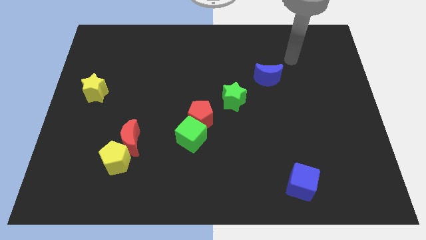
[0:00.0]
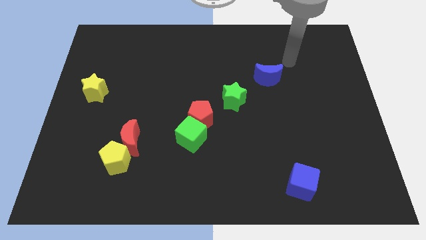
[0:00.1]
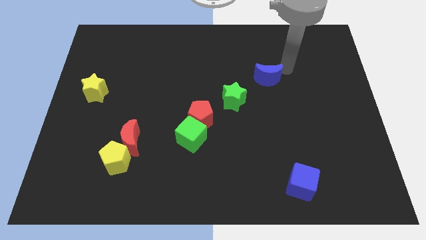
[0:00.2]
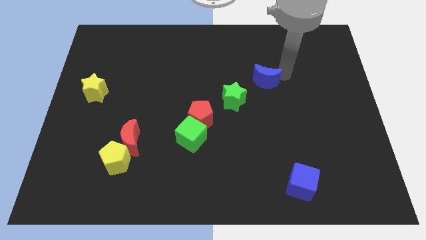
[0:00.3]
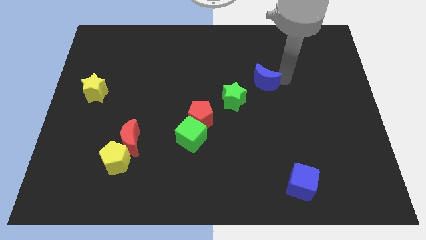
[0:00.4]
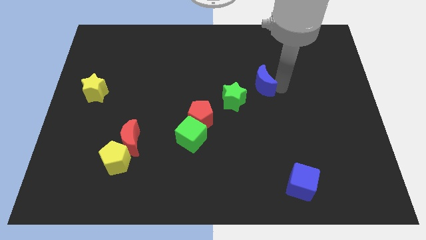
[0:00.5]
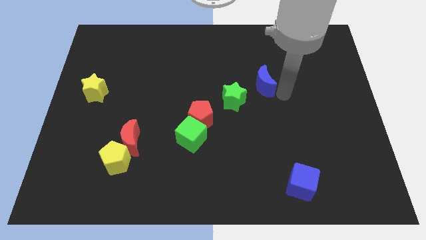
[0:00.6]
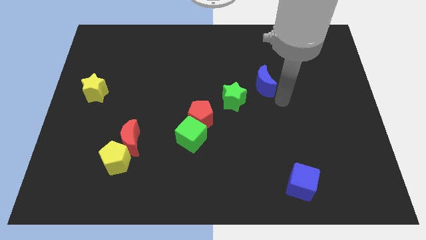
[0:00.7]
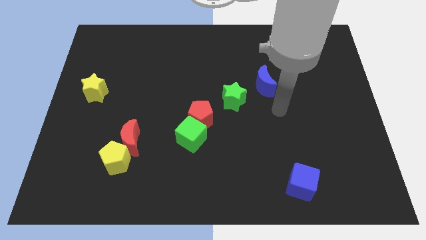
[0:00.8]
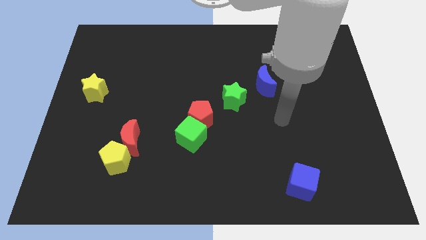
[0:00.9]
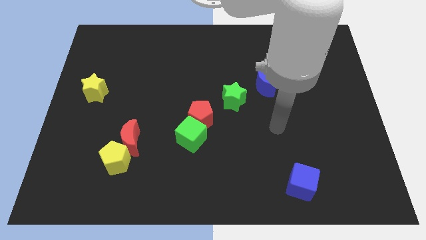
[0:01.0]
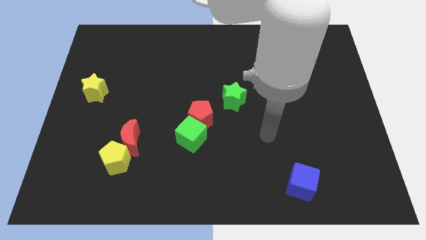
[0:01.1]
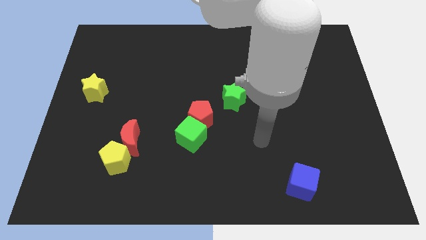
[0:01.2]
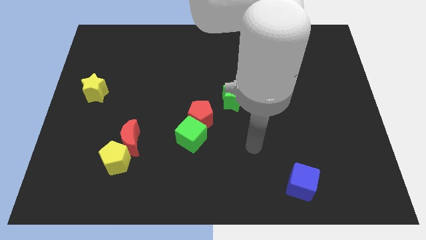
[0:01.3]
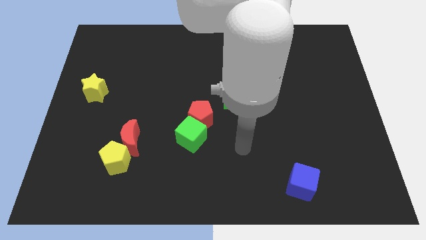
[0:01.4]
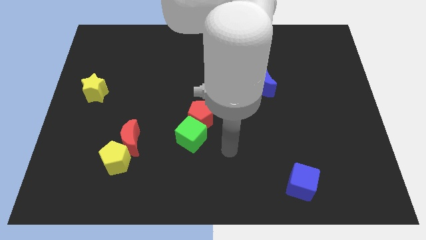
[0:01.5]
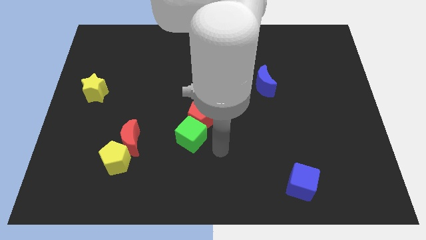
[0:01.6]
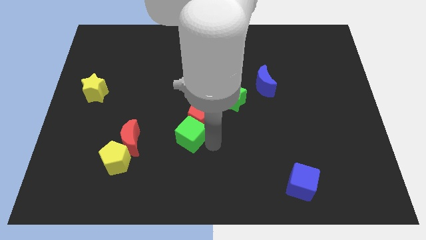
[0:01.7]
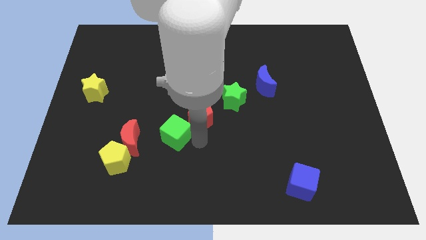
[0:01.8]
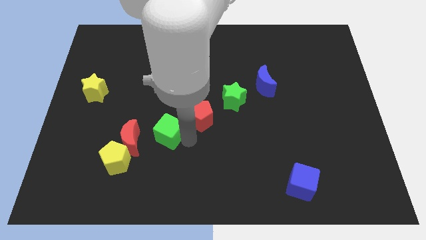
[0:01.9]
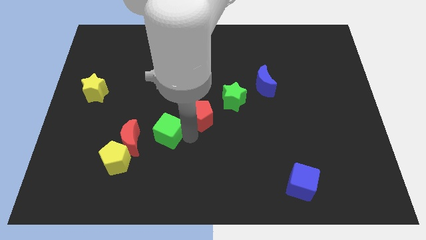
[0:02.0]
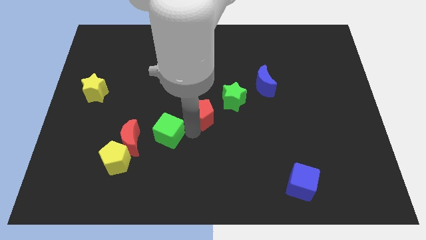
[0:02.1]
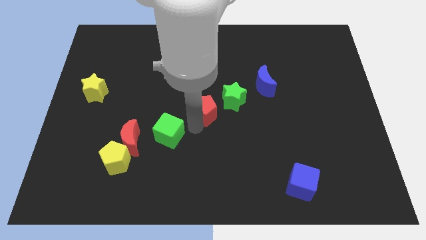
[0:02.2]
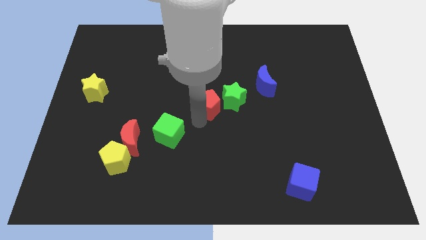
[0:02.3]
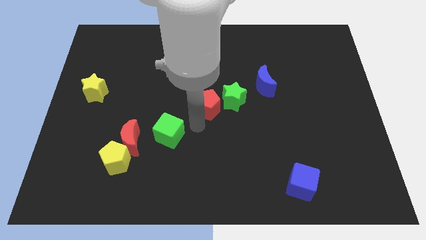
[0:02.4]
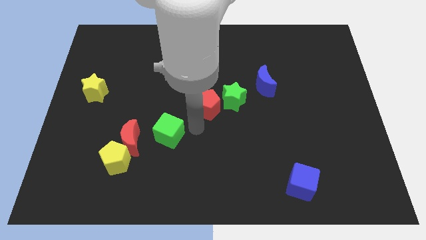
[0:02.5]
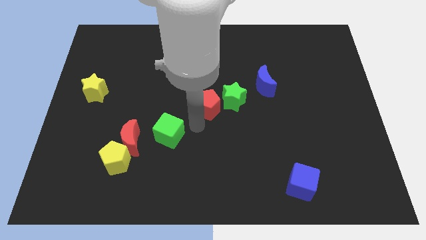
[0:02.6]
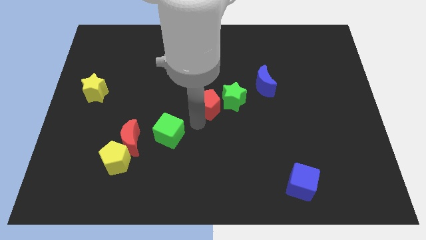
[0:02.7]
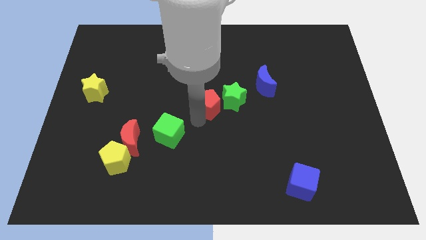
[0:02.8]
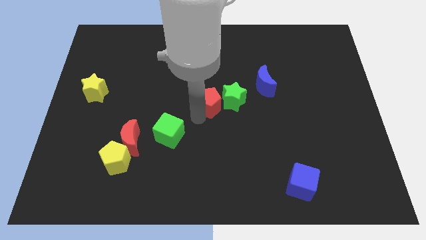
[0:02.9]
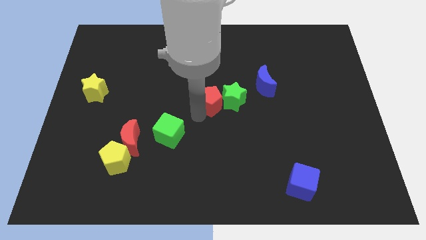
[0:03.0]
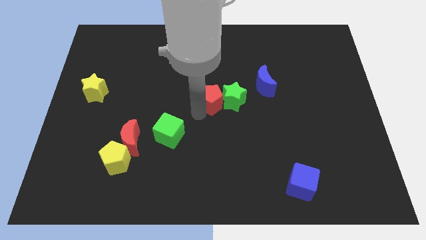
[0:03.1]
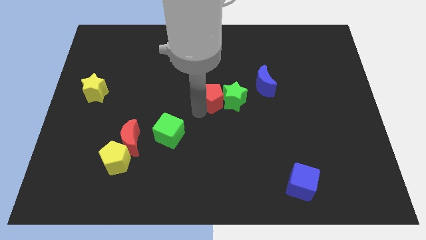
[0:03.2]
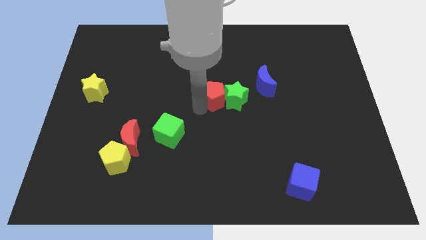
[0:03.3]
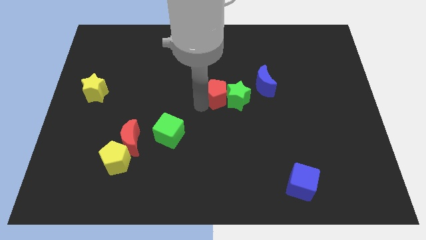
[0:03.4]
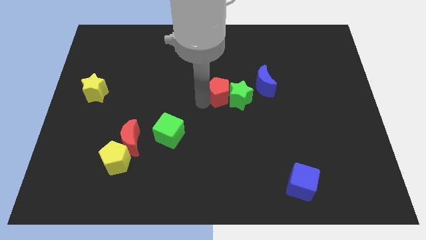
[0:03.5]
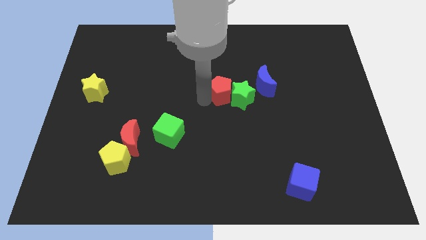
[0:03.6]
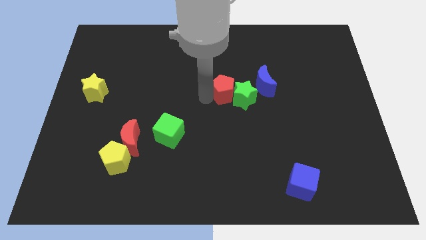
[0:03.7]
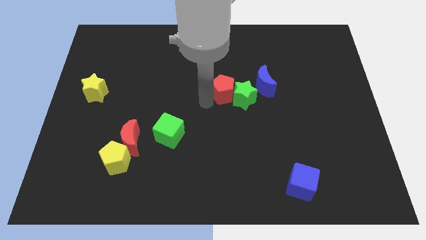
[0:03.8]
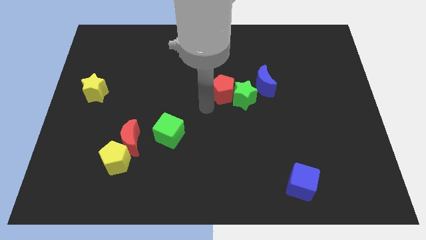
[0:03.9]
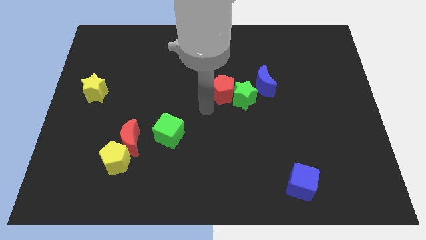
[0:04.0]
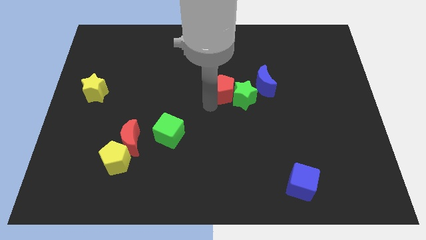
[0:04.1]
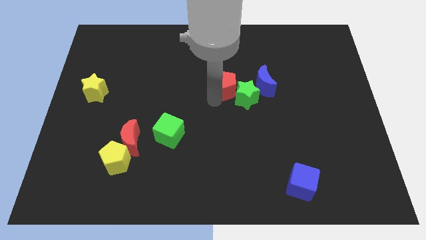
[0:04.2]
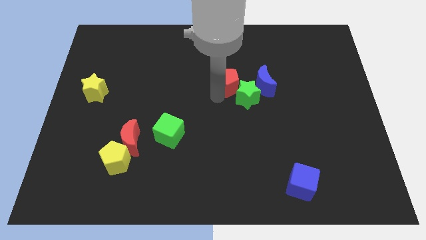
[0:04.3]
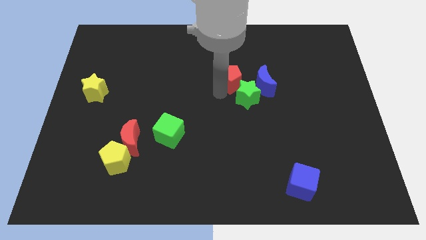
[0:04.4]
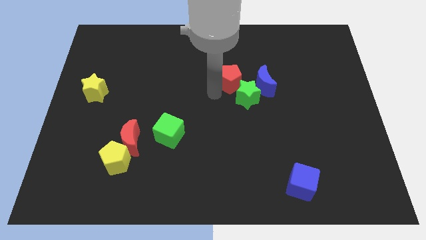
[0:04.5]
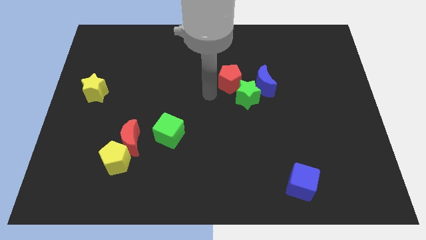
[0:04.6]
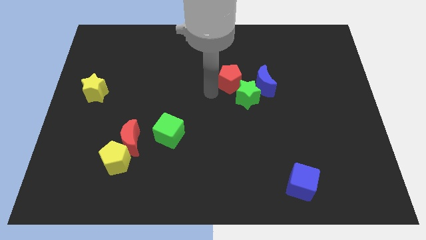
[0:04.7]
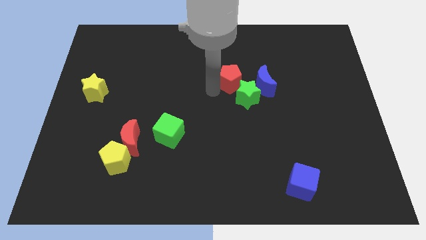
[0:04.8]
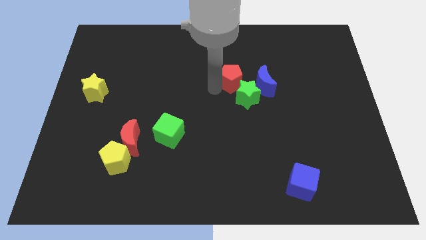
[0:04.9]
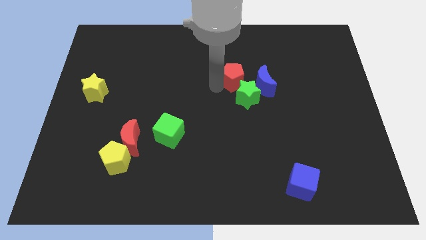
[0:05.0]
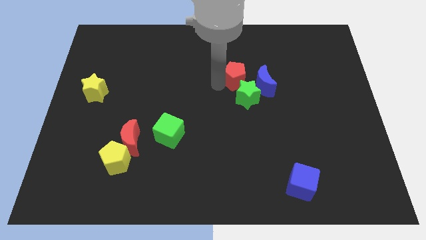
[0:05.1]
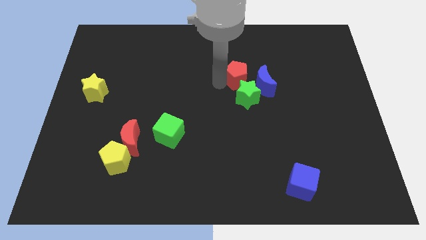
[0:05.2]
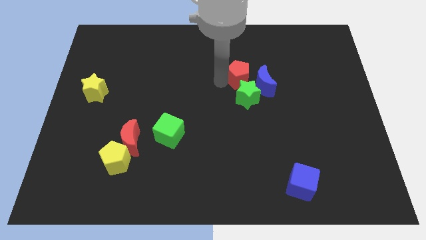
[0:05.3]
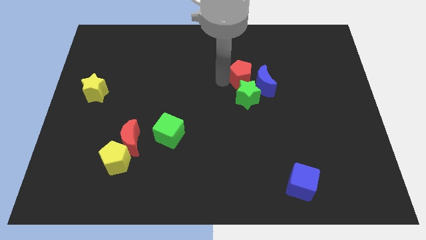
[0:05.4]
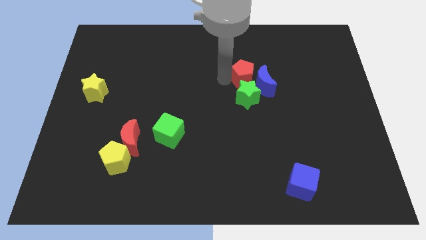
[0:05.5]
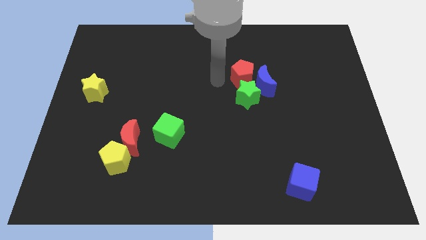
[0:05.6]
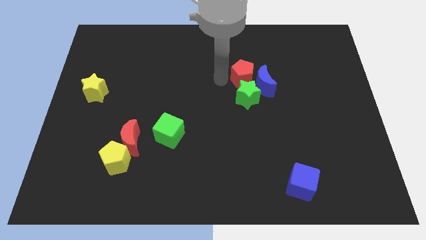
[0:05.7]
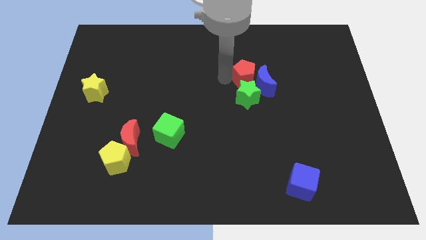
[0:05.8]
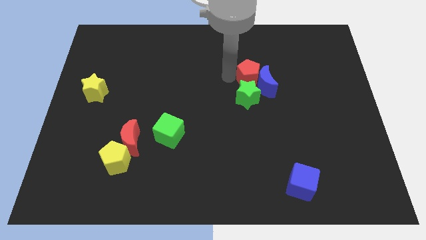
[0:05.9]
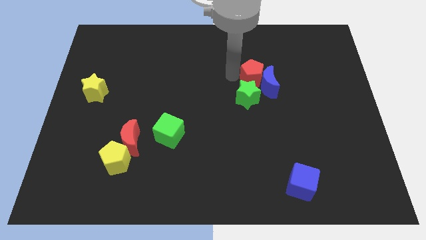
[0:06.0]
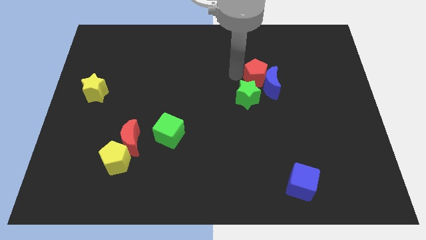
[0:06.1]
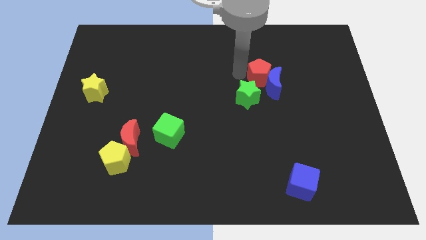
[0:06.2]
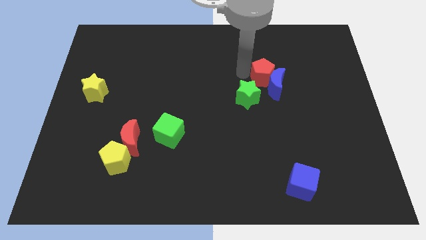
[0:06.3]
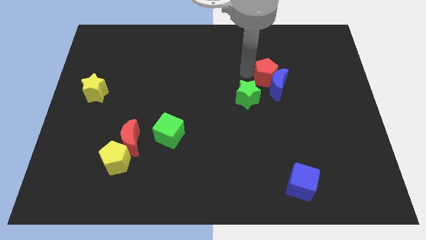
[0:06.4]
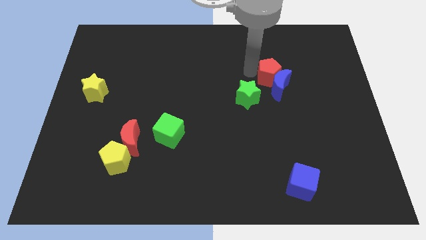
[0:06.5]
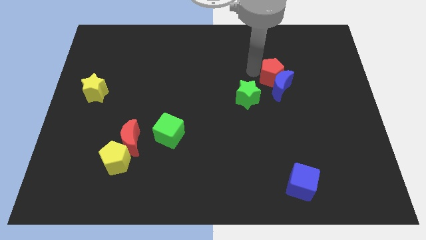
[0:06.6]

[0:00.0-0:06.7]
slide the red pentagon to the top right side of the blue moon
